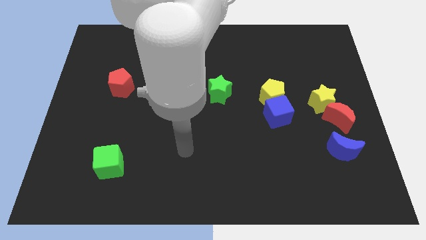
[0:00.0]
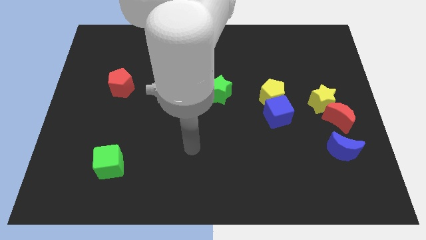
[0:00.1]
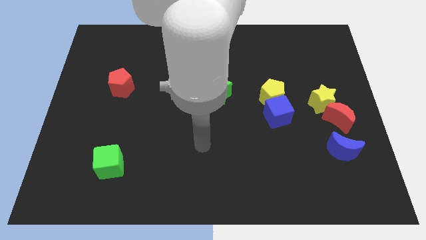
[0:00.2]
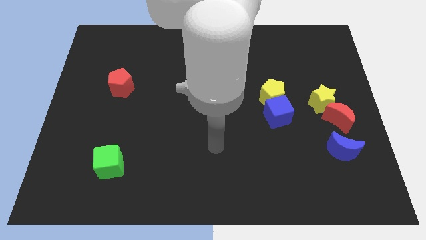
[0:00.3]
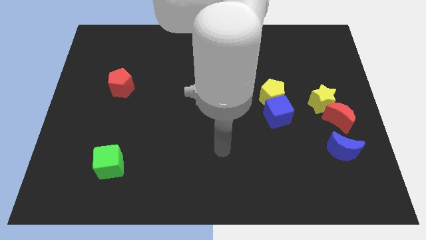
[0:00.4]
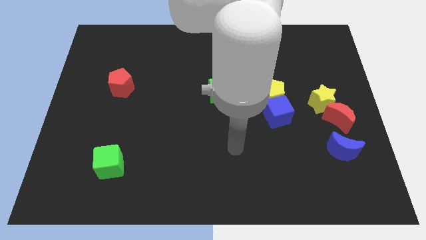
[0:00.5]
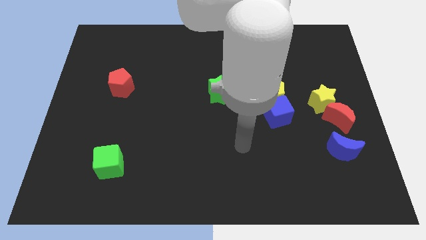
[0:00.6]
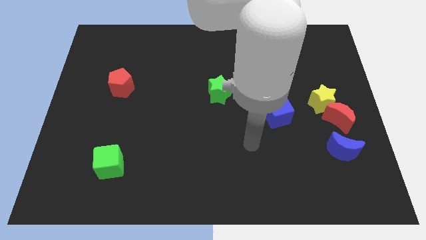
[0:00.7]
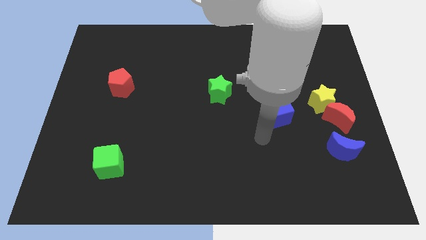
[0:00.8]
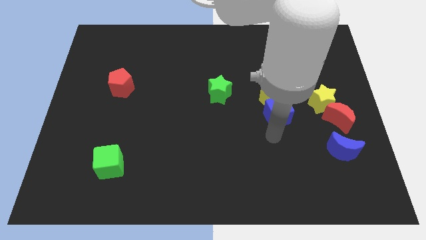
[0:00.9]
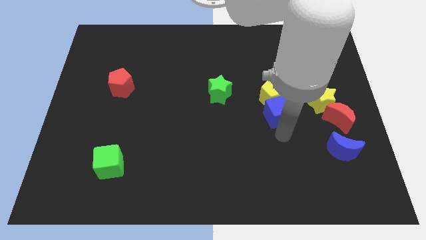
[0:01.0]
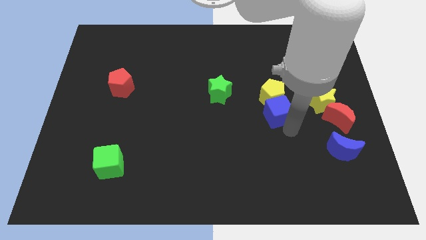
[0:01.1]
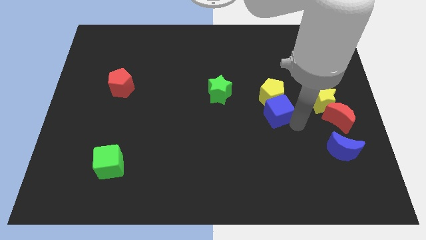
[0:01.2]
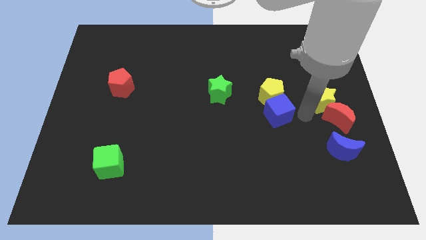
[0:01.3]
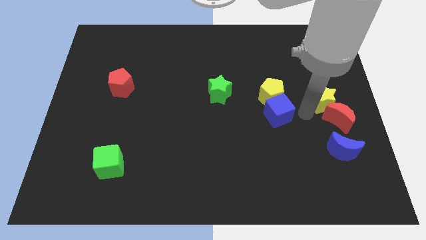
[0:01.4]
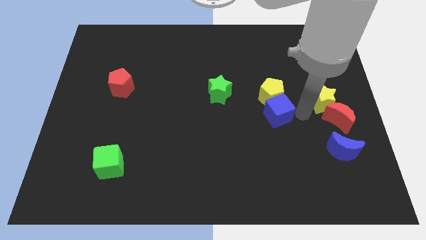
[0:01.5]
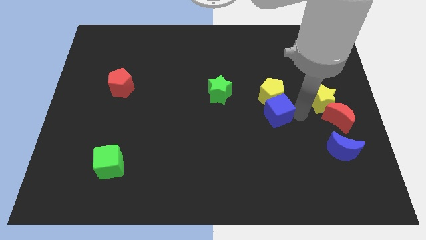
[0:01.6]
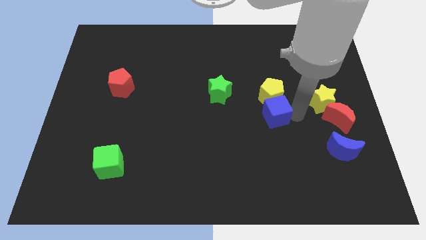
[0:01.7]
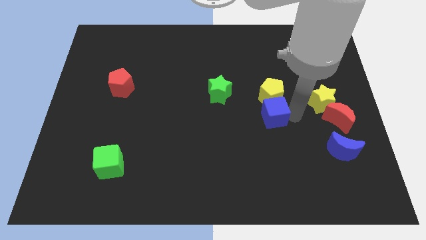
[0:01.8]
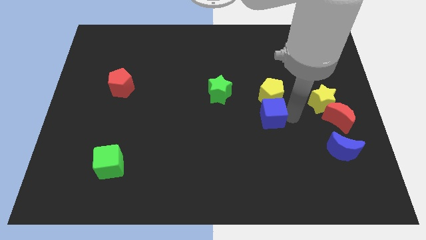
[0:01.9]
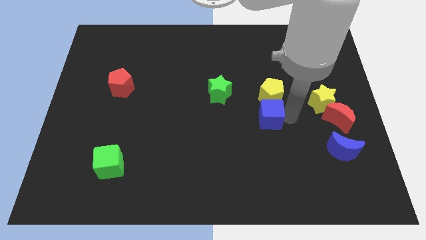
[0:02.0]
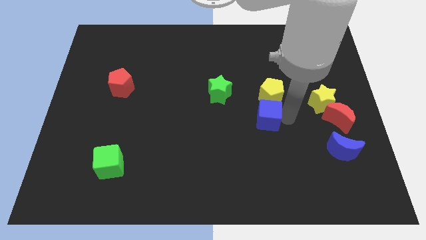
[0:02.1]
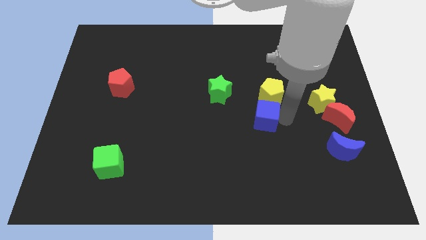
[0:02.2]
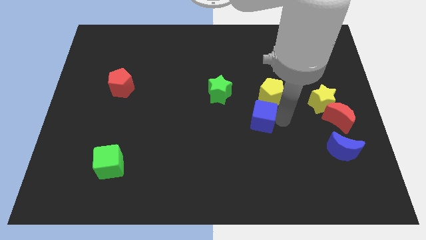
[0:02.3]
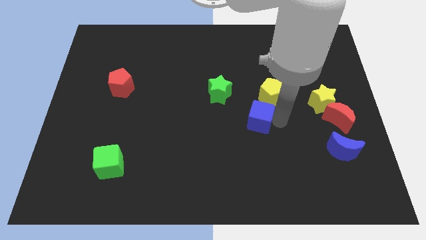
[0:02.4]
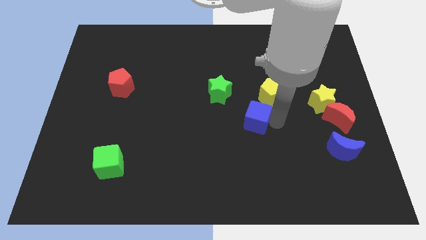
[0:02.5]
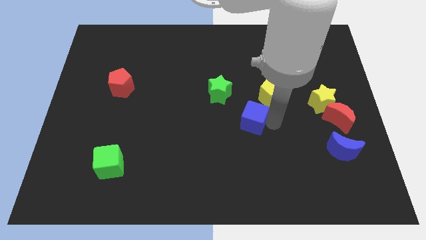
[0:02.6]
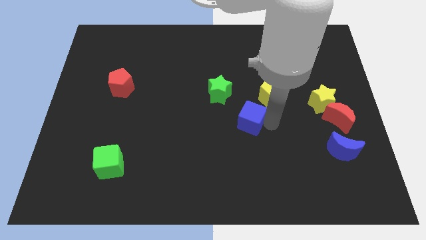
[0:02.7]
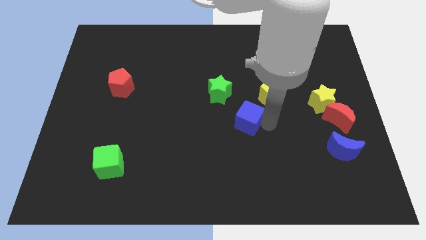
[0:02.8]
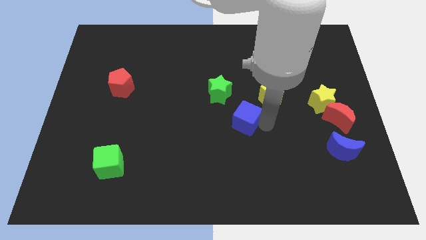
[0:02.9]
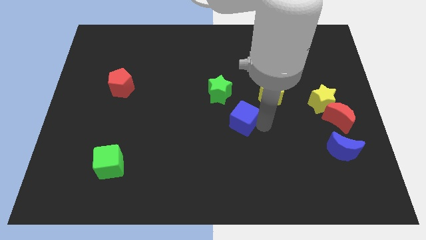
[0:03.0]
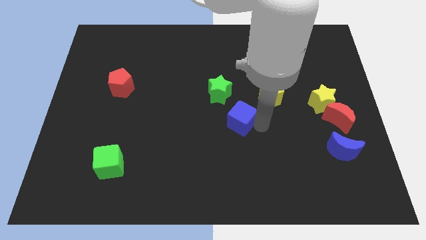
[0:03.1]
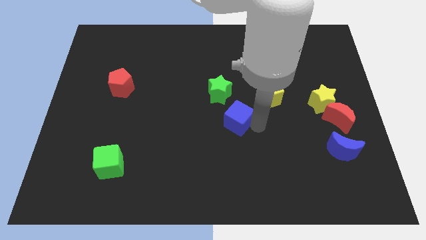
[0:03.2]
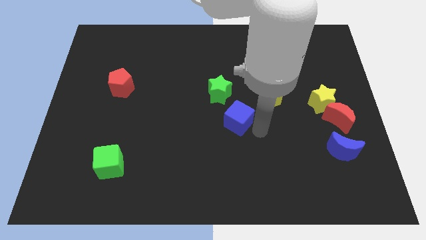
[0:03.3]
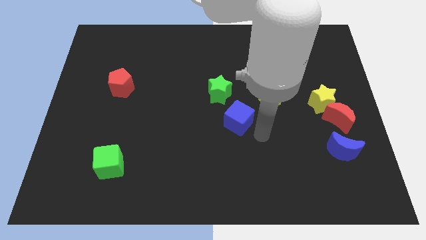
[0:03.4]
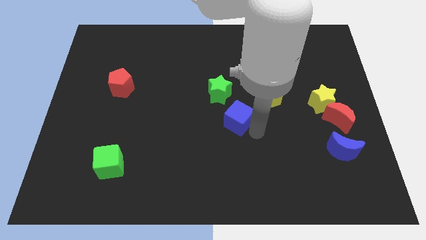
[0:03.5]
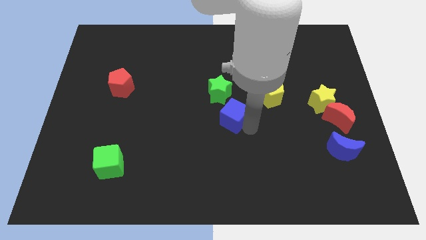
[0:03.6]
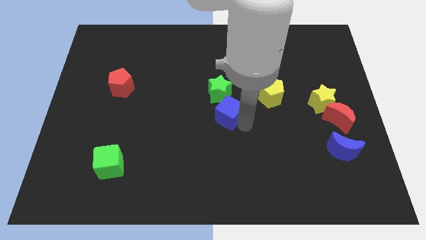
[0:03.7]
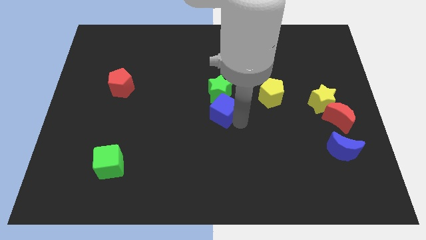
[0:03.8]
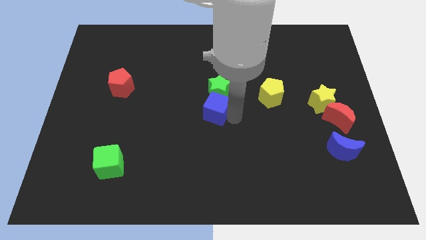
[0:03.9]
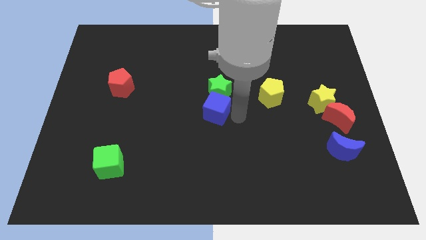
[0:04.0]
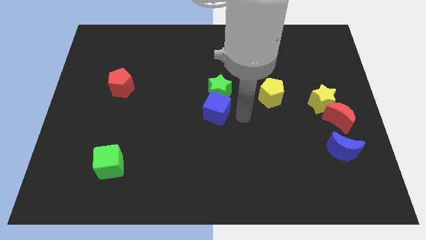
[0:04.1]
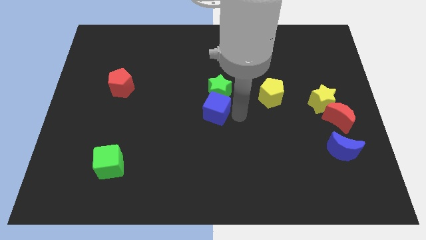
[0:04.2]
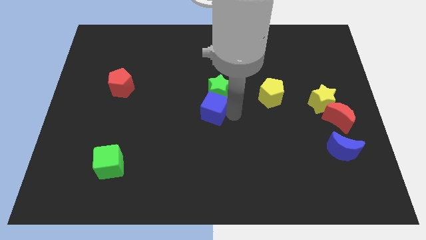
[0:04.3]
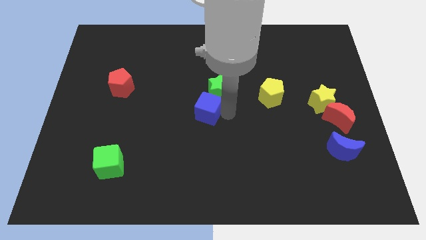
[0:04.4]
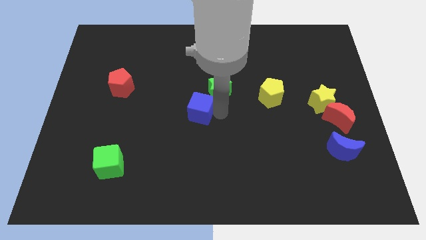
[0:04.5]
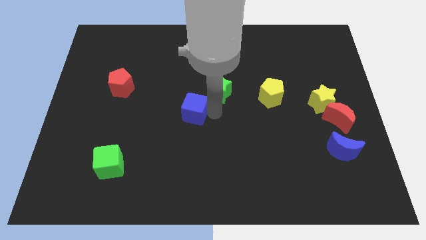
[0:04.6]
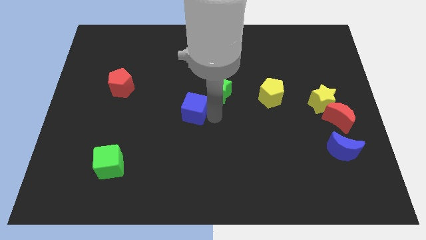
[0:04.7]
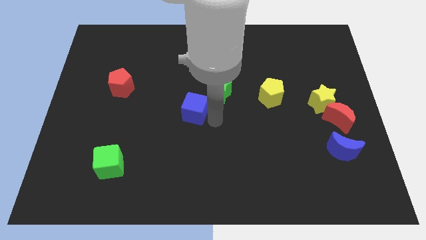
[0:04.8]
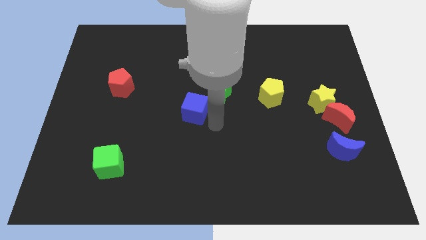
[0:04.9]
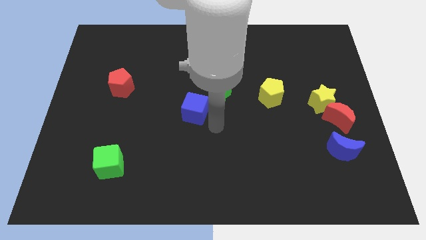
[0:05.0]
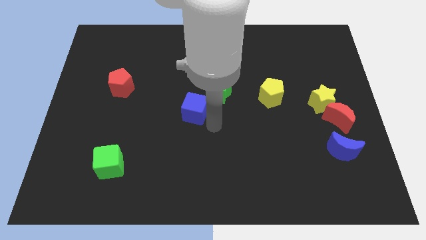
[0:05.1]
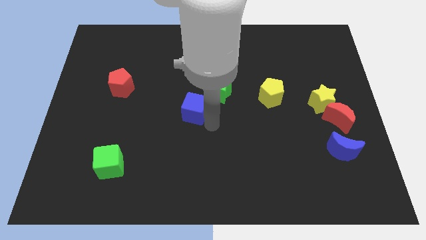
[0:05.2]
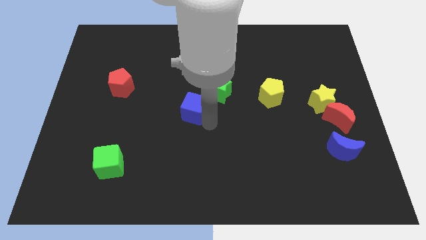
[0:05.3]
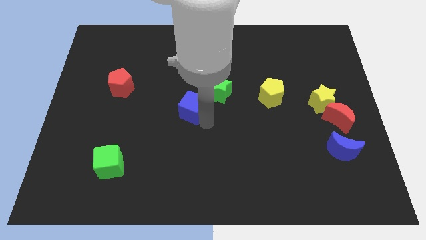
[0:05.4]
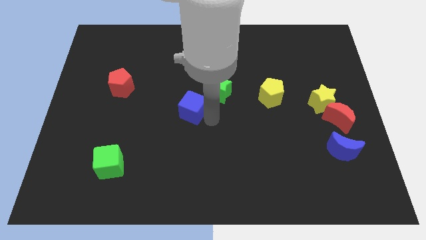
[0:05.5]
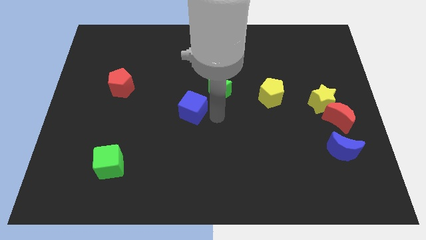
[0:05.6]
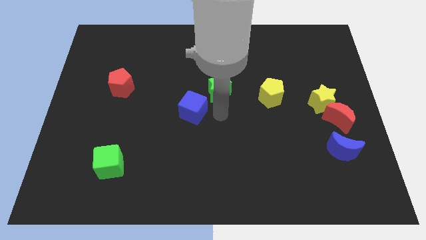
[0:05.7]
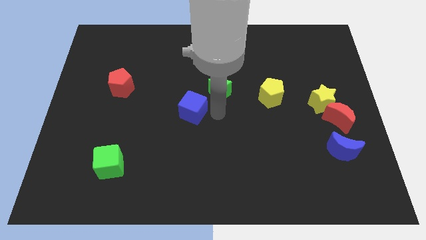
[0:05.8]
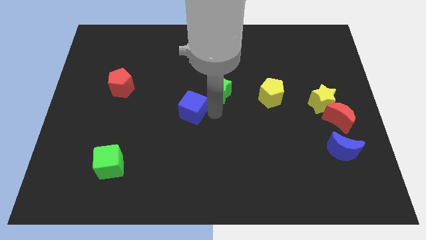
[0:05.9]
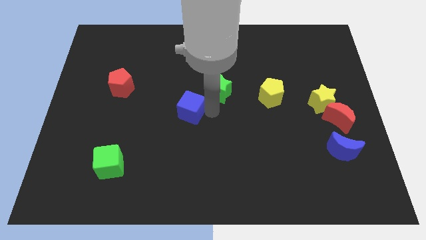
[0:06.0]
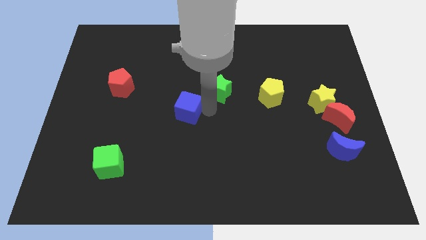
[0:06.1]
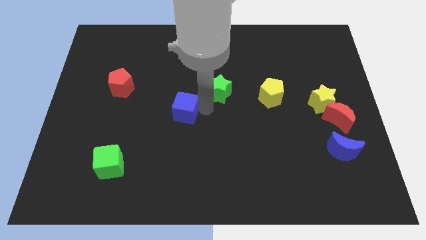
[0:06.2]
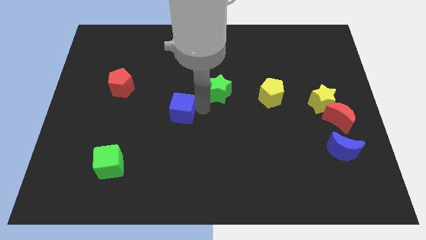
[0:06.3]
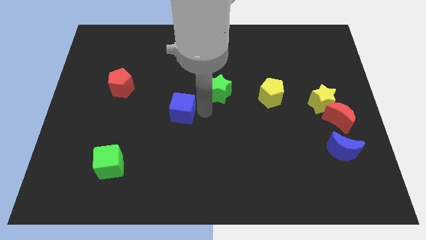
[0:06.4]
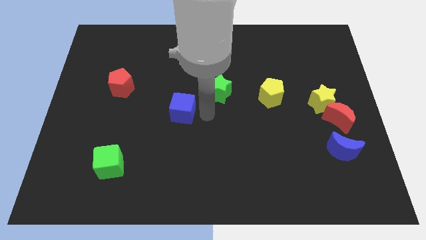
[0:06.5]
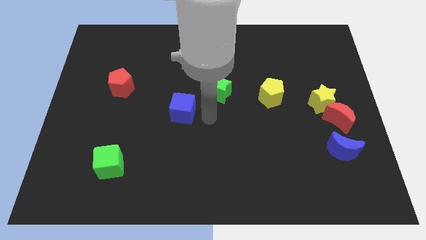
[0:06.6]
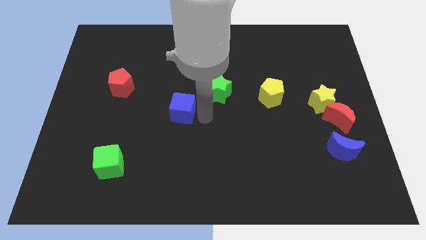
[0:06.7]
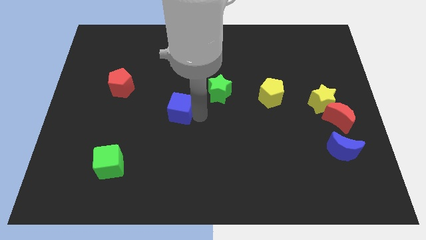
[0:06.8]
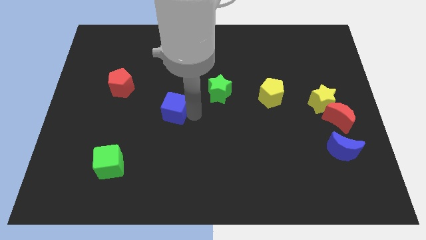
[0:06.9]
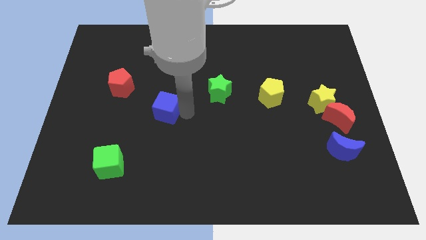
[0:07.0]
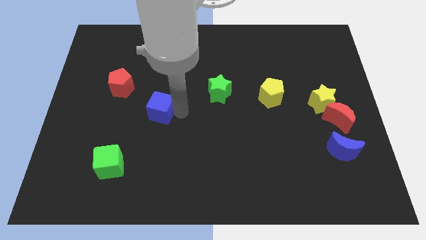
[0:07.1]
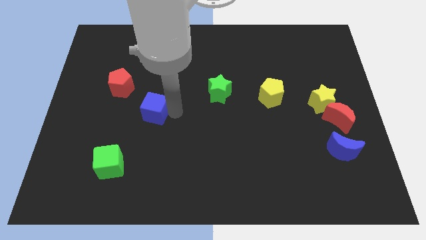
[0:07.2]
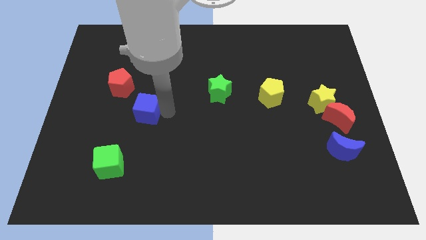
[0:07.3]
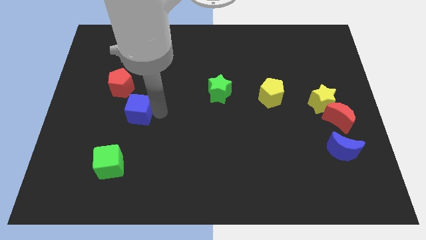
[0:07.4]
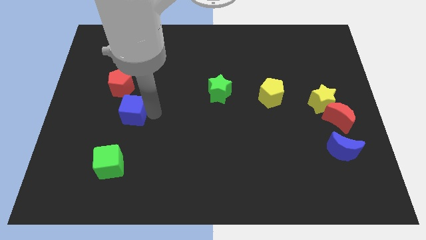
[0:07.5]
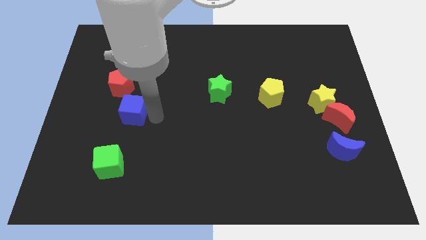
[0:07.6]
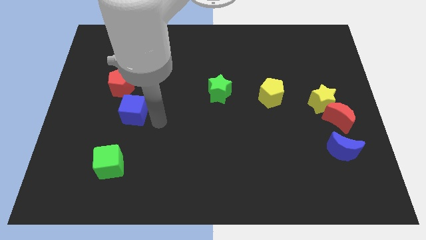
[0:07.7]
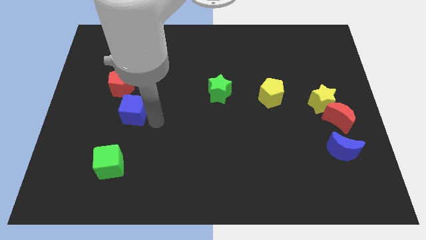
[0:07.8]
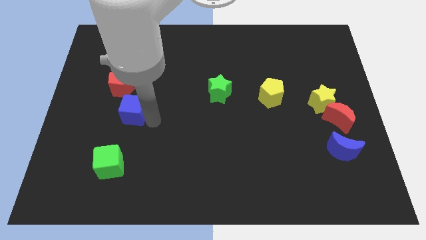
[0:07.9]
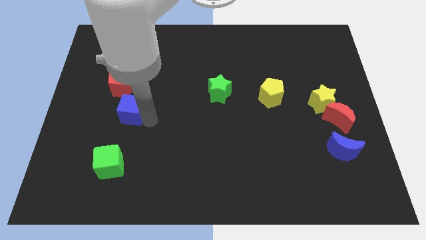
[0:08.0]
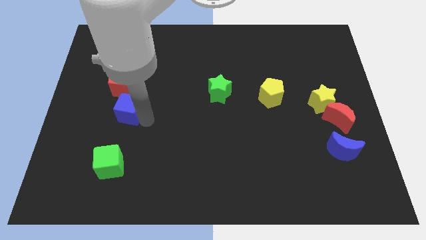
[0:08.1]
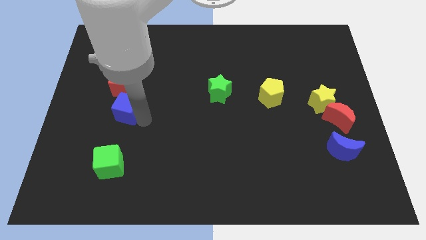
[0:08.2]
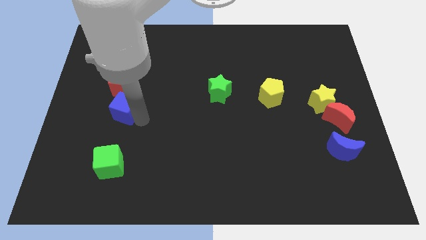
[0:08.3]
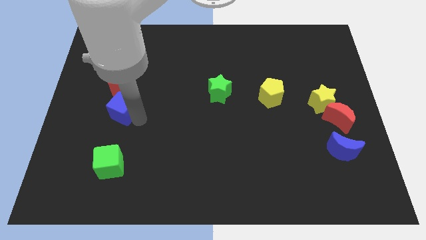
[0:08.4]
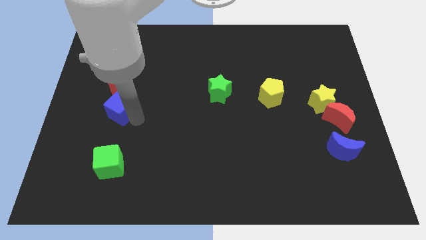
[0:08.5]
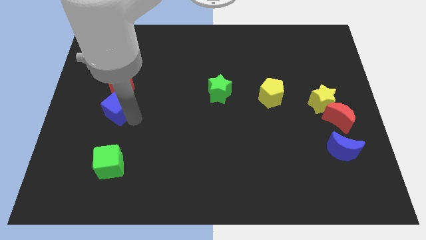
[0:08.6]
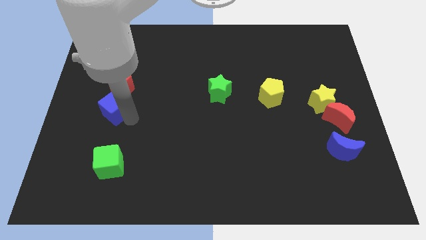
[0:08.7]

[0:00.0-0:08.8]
put the blue cube to the bottom left side of the red pentagon
